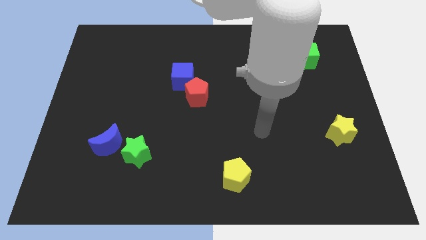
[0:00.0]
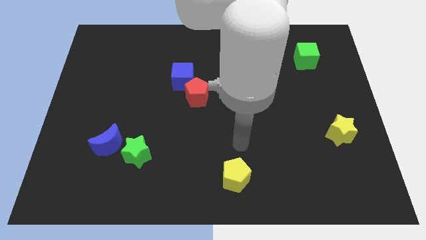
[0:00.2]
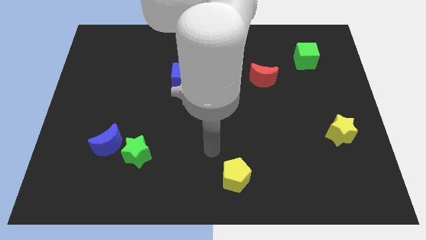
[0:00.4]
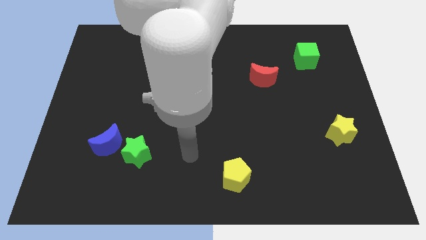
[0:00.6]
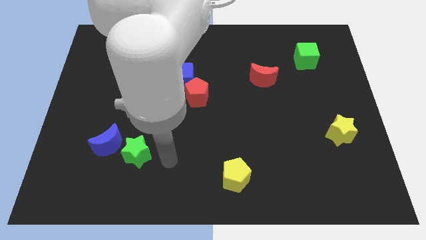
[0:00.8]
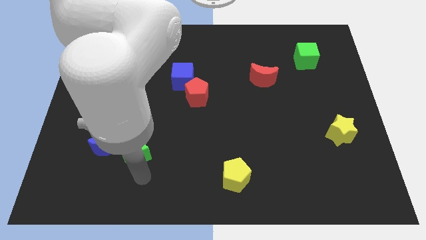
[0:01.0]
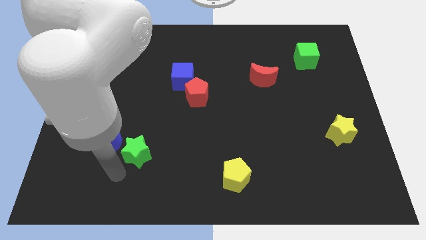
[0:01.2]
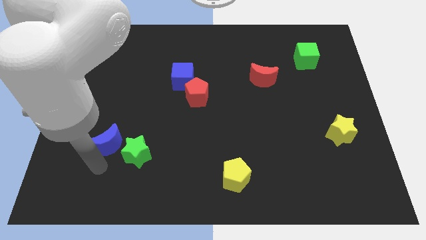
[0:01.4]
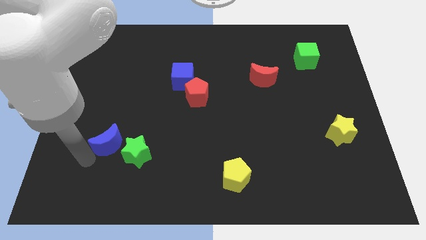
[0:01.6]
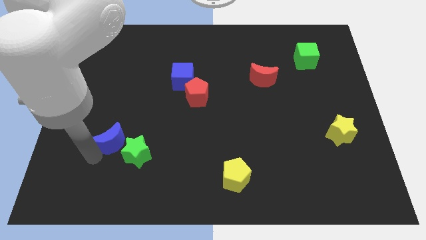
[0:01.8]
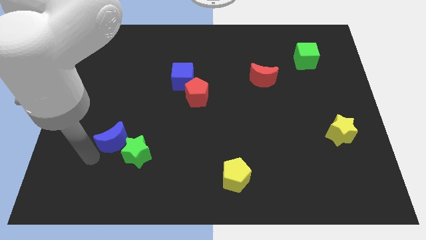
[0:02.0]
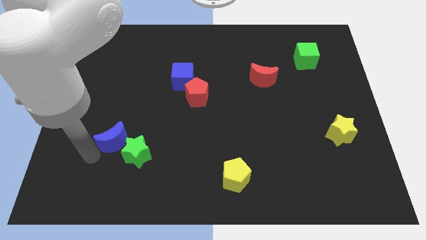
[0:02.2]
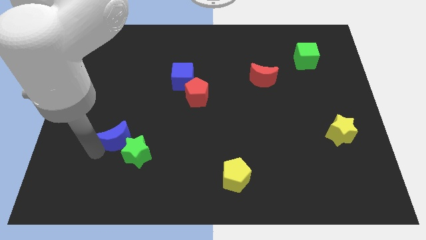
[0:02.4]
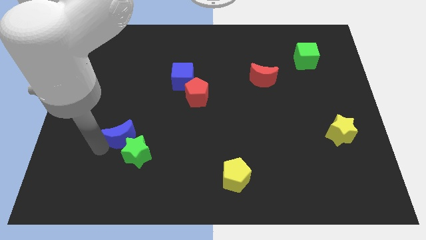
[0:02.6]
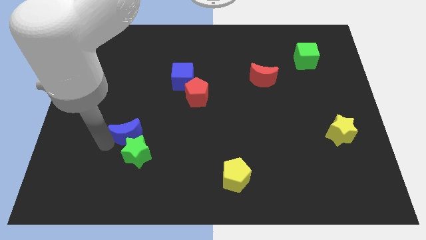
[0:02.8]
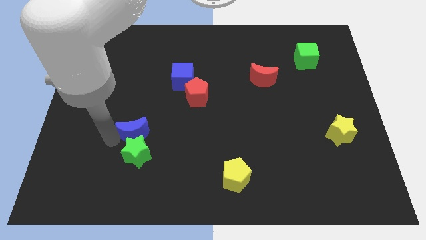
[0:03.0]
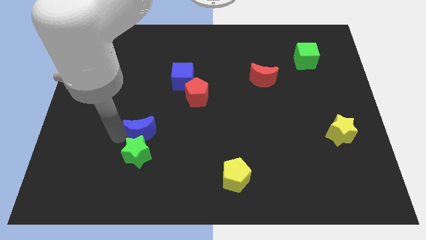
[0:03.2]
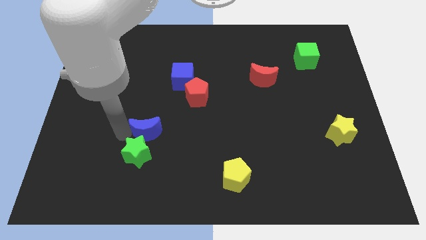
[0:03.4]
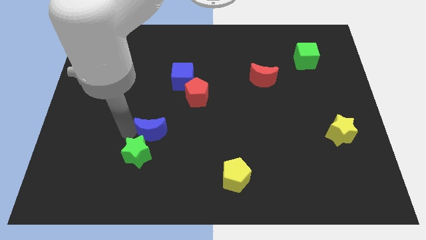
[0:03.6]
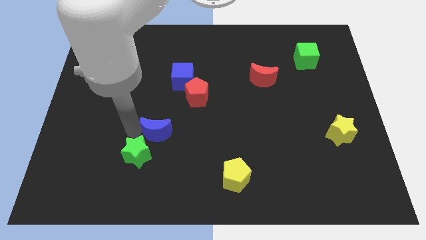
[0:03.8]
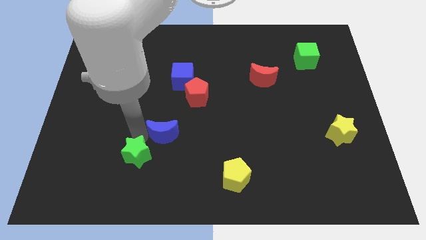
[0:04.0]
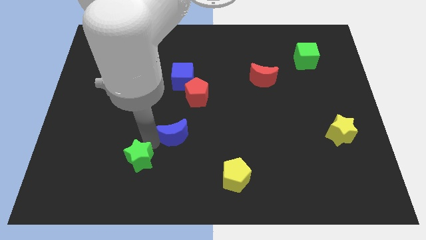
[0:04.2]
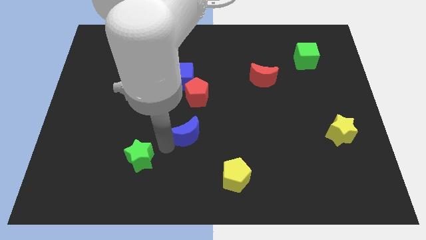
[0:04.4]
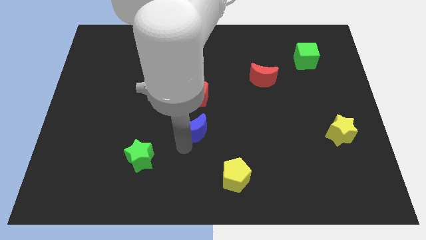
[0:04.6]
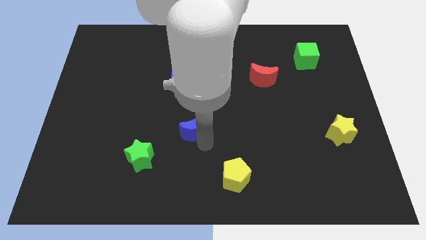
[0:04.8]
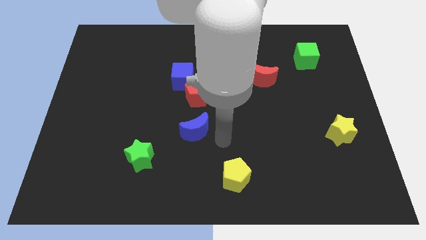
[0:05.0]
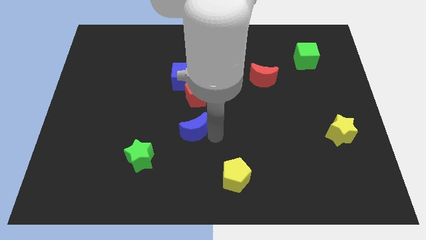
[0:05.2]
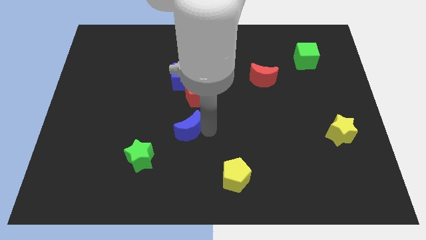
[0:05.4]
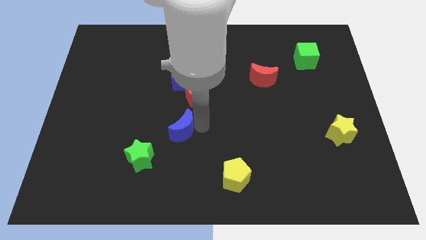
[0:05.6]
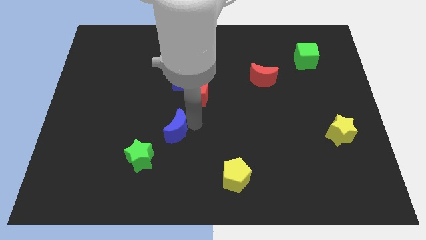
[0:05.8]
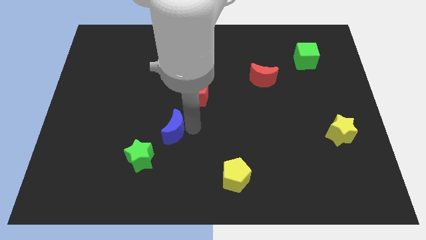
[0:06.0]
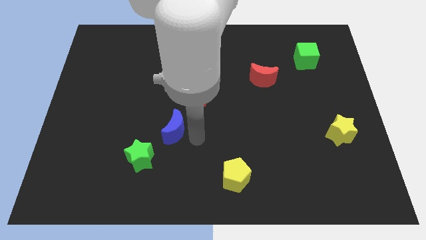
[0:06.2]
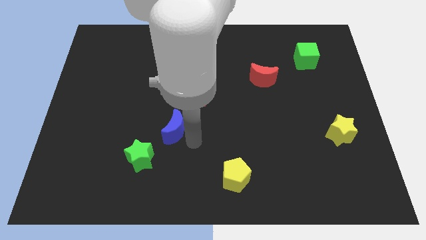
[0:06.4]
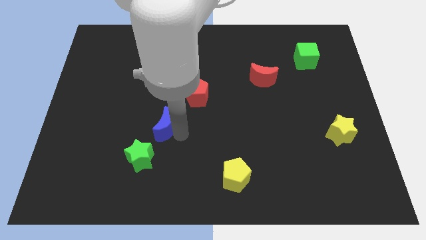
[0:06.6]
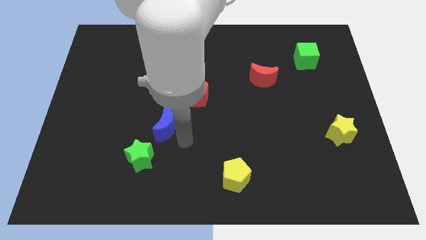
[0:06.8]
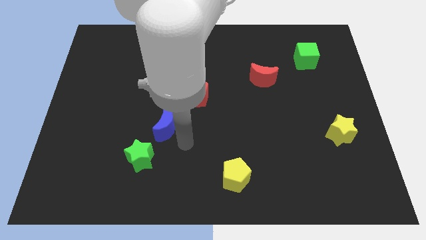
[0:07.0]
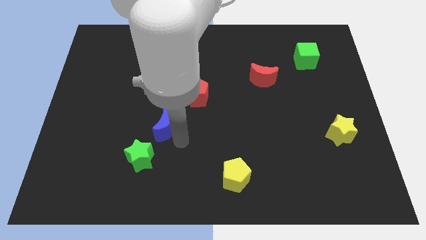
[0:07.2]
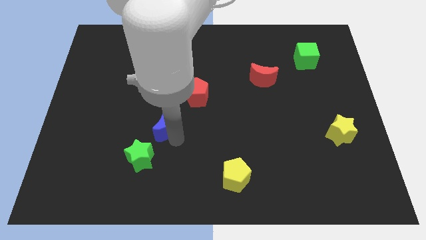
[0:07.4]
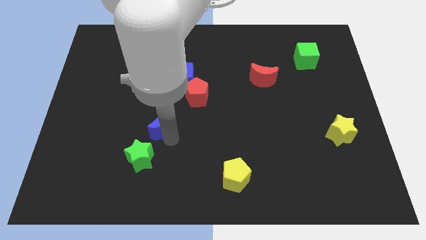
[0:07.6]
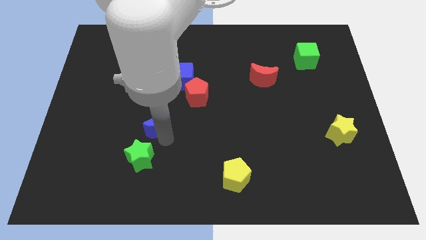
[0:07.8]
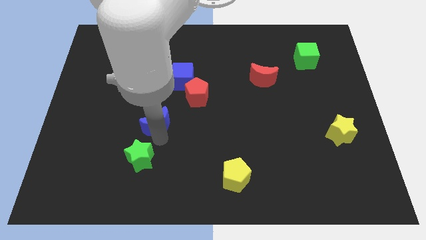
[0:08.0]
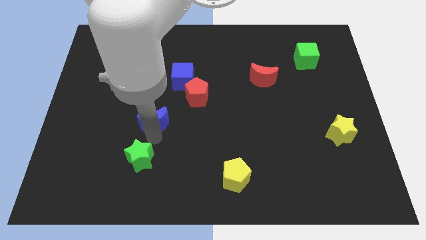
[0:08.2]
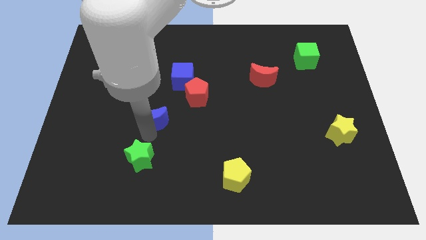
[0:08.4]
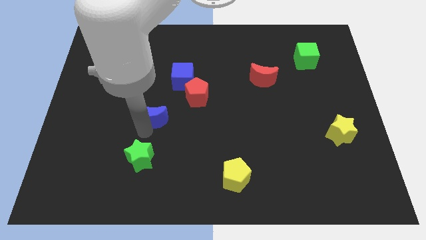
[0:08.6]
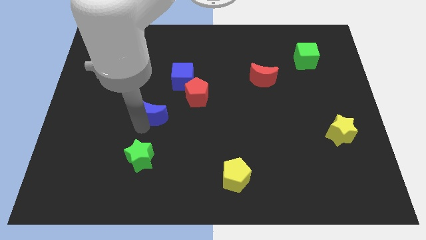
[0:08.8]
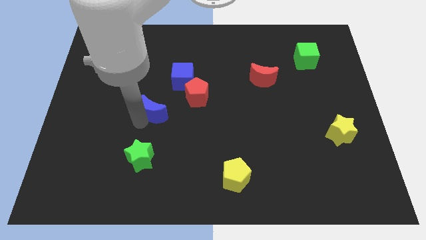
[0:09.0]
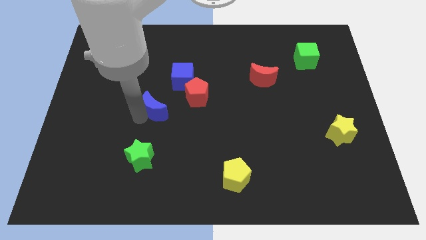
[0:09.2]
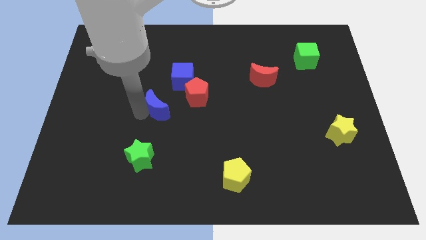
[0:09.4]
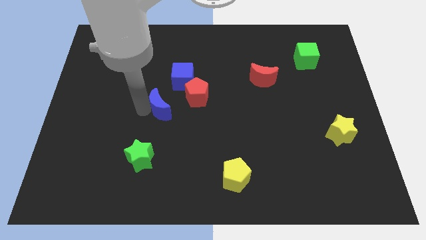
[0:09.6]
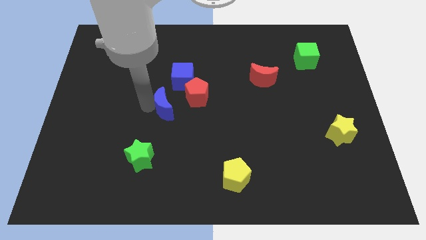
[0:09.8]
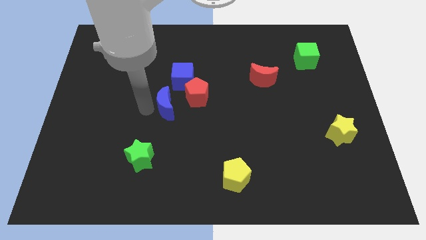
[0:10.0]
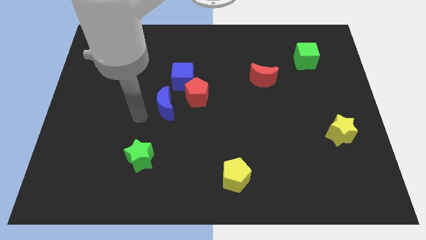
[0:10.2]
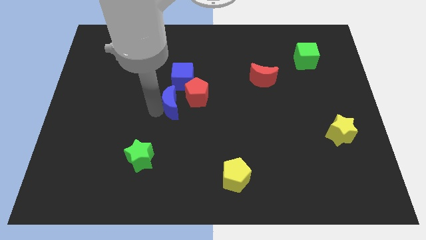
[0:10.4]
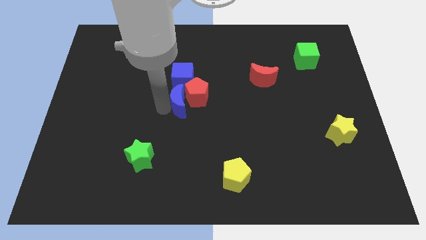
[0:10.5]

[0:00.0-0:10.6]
put the blue moon to the red pentagon

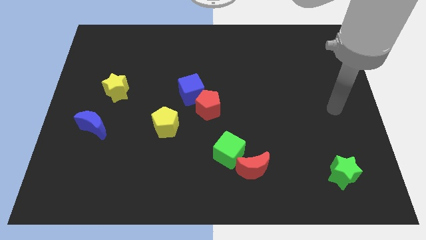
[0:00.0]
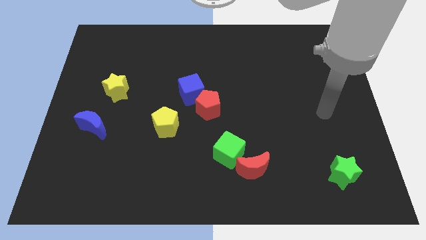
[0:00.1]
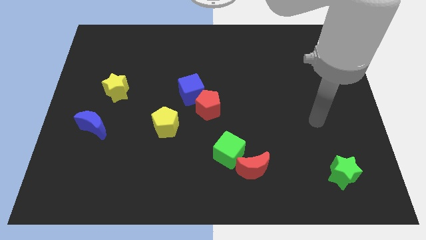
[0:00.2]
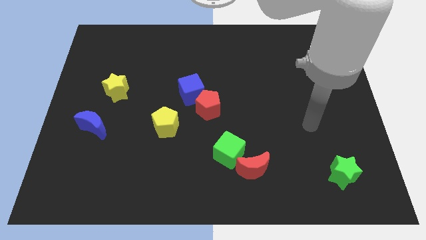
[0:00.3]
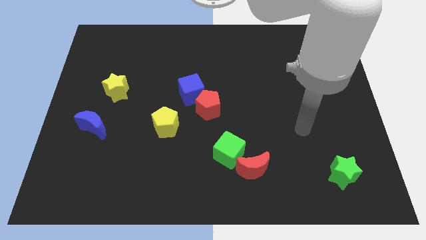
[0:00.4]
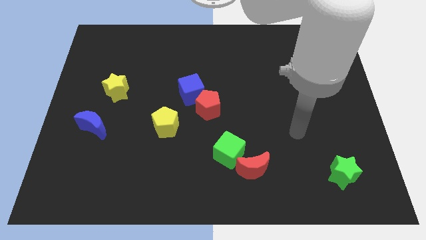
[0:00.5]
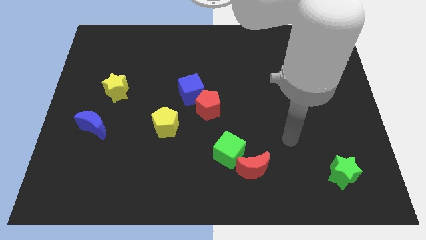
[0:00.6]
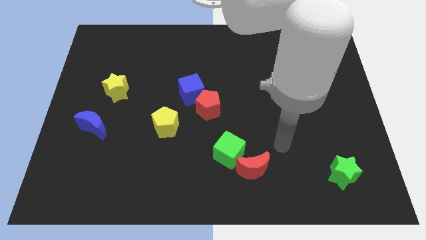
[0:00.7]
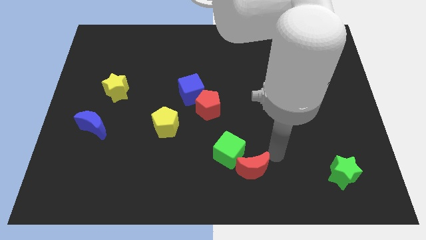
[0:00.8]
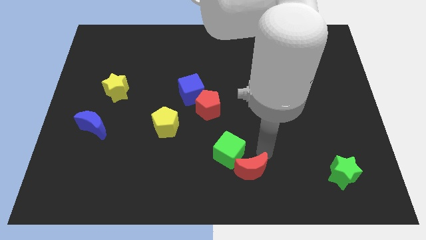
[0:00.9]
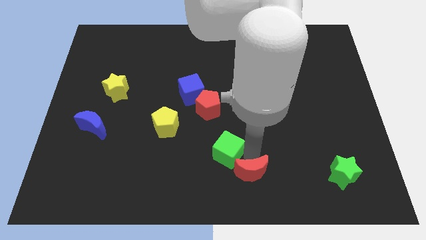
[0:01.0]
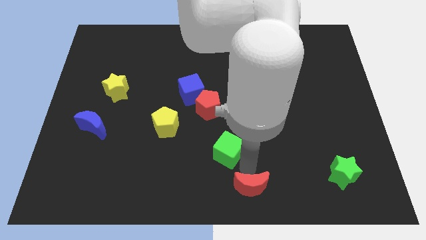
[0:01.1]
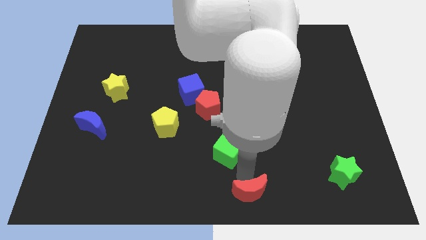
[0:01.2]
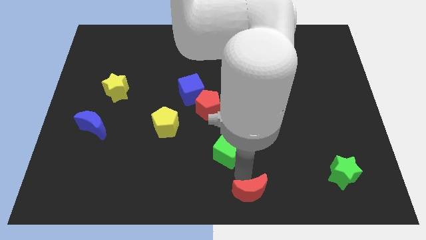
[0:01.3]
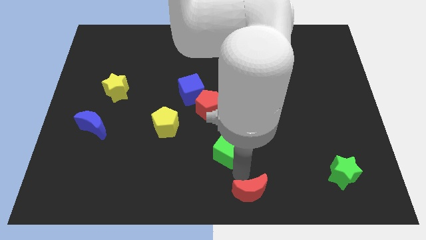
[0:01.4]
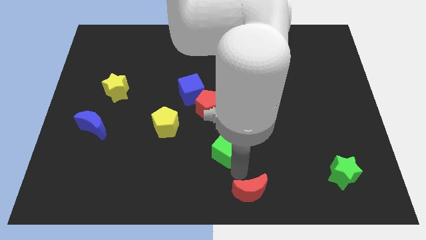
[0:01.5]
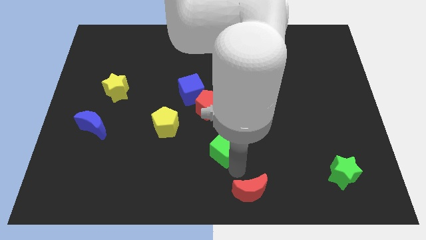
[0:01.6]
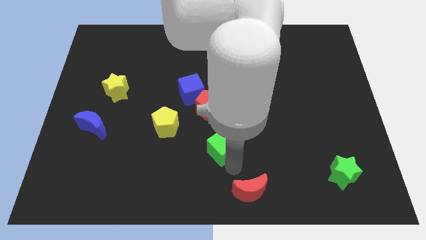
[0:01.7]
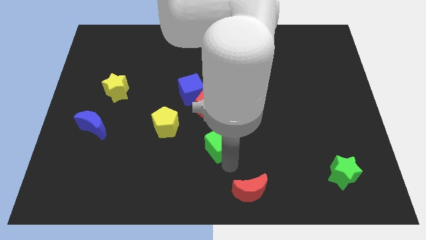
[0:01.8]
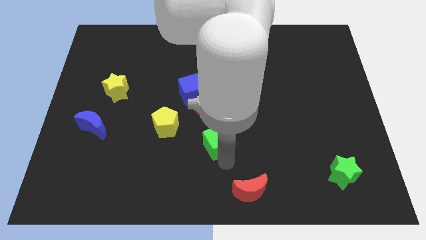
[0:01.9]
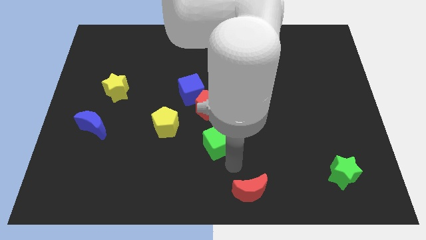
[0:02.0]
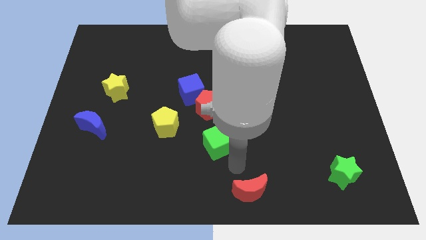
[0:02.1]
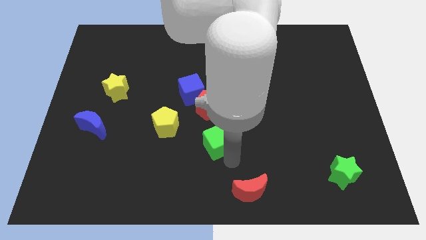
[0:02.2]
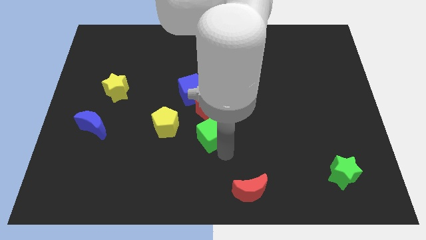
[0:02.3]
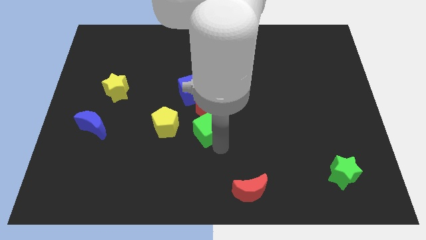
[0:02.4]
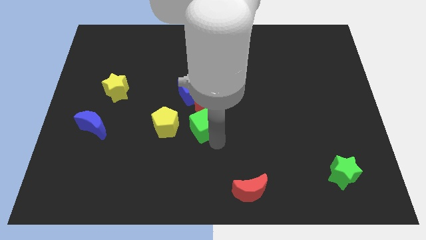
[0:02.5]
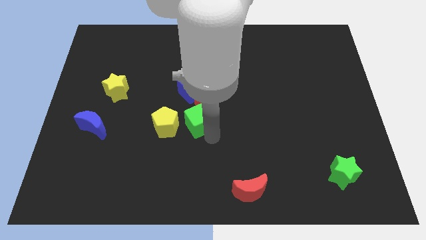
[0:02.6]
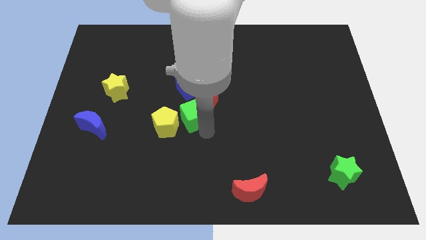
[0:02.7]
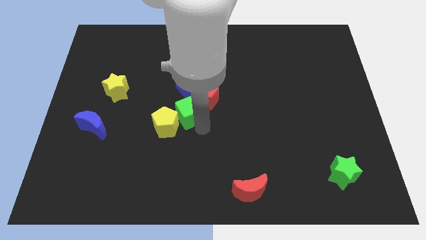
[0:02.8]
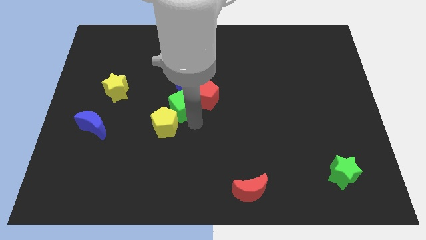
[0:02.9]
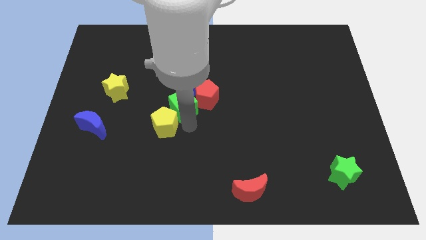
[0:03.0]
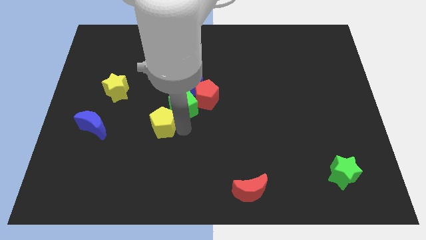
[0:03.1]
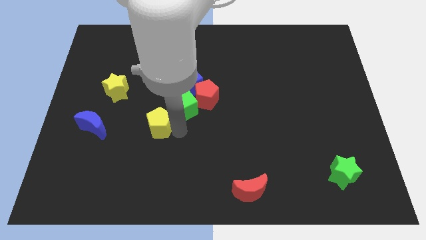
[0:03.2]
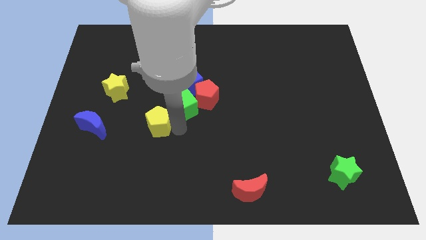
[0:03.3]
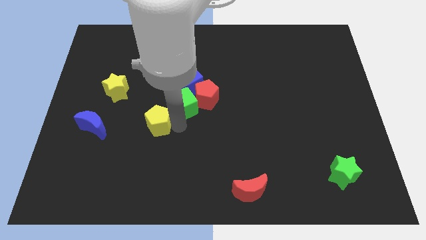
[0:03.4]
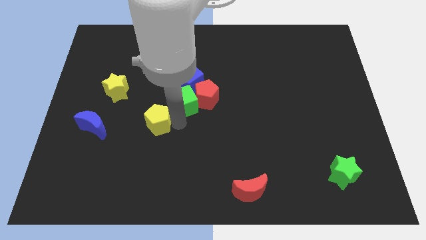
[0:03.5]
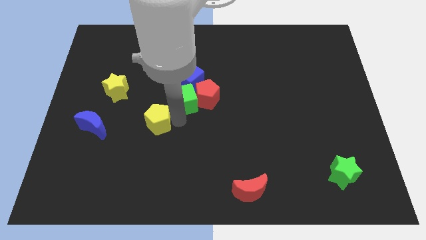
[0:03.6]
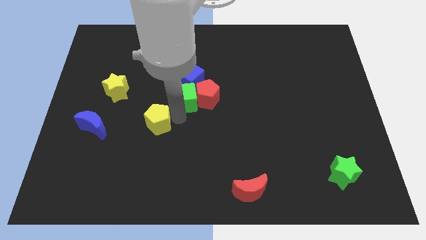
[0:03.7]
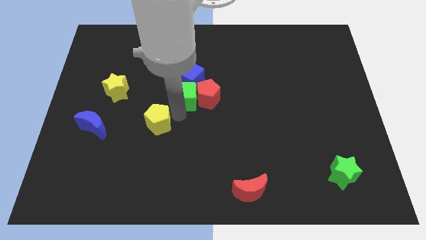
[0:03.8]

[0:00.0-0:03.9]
move the green cube towards the blue cube
